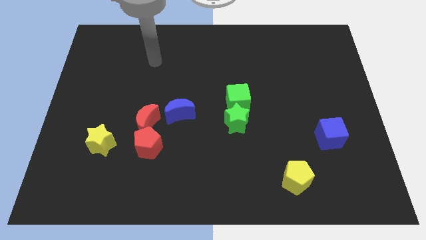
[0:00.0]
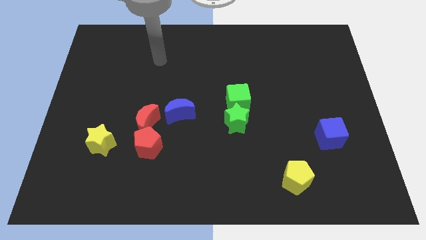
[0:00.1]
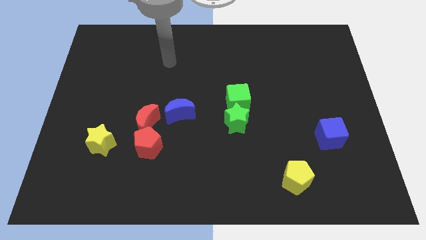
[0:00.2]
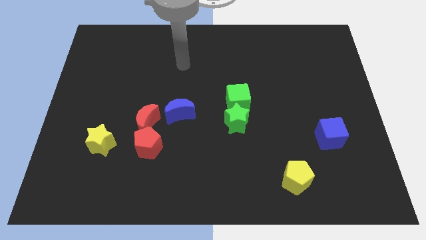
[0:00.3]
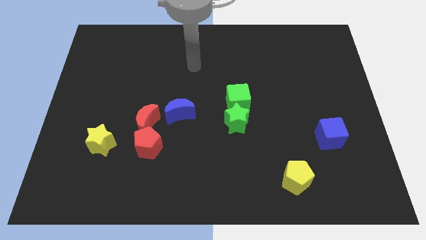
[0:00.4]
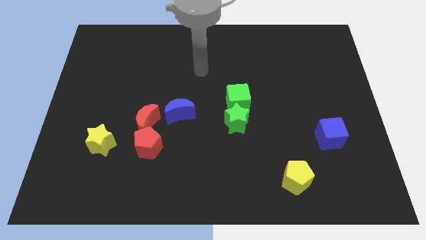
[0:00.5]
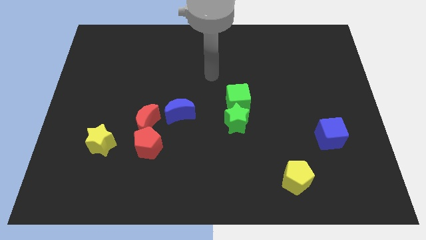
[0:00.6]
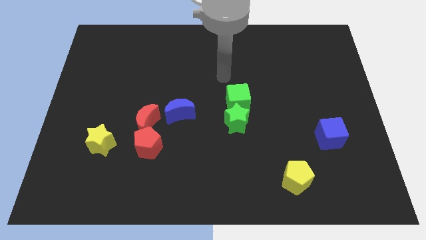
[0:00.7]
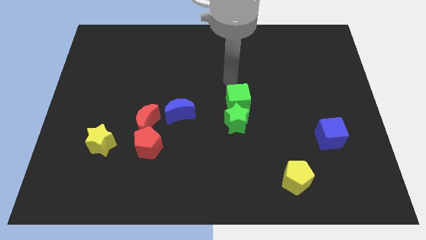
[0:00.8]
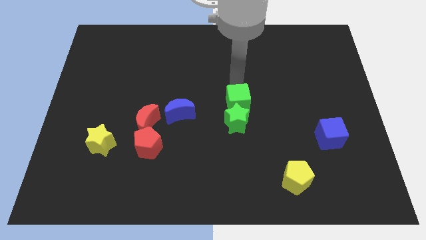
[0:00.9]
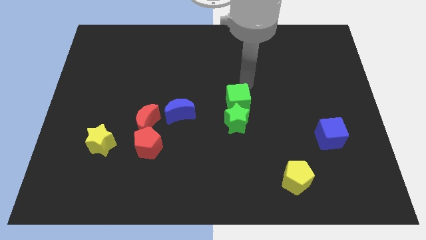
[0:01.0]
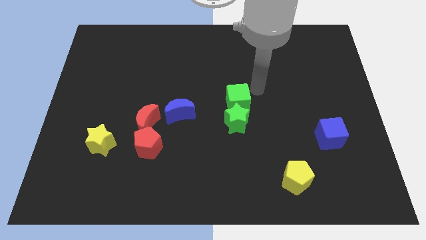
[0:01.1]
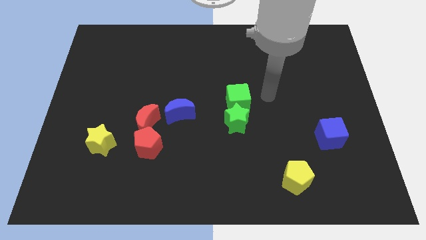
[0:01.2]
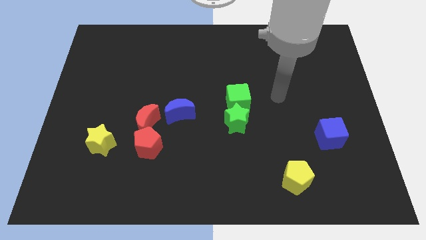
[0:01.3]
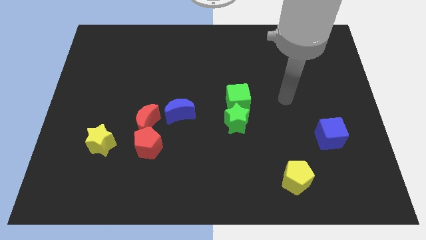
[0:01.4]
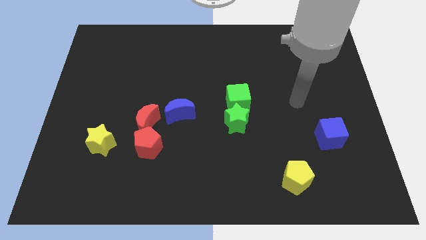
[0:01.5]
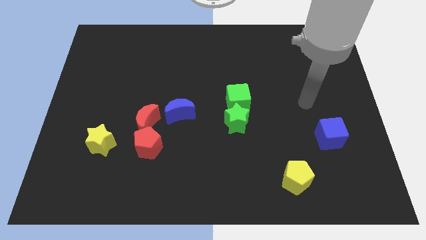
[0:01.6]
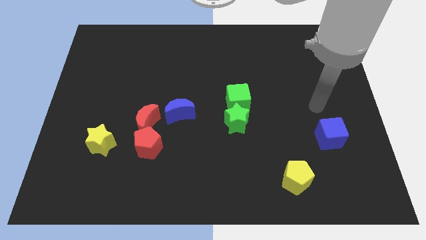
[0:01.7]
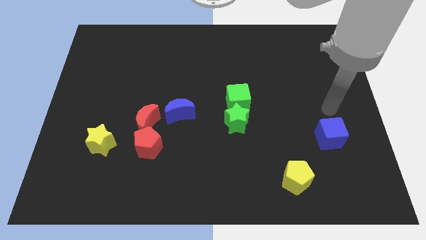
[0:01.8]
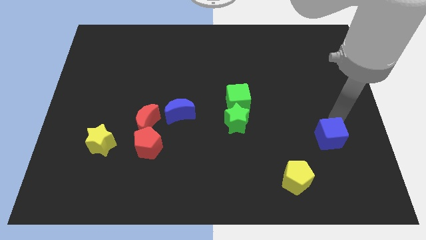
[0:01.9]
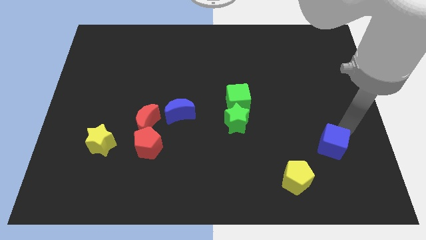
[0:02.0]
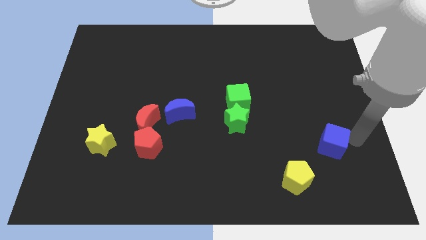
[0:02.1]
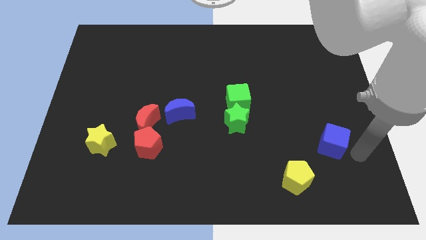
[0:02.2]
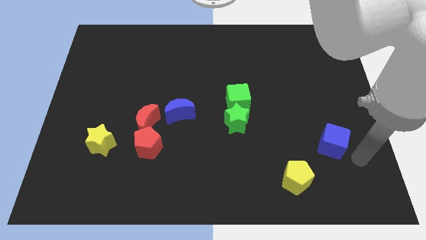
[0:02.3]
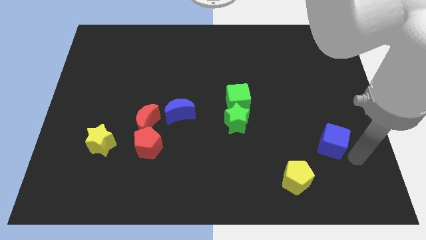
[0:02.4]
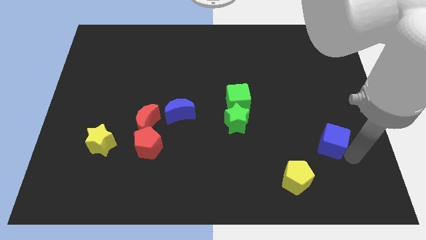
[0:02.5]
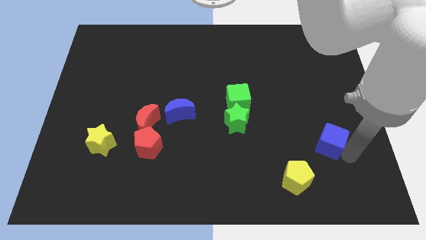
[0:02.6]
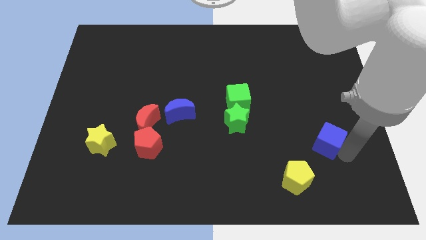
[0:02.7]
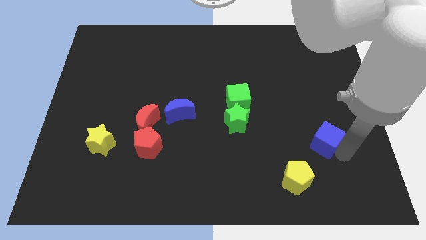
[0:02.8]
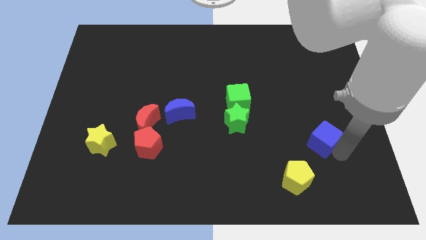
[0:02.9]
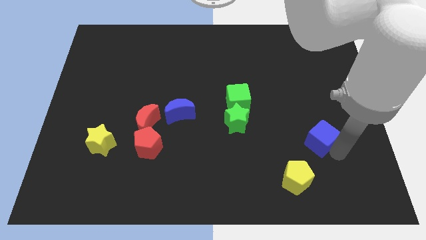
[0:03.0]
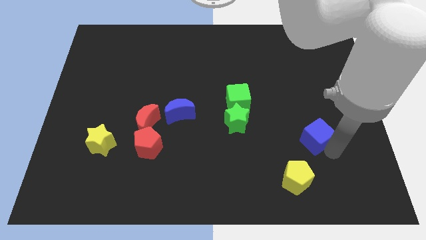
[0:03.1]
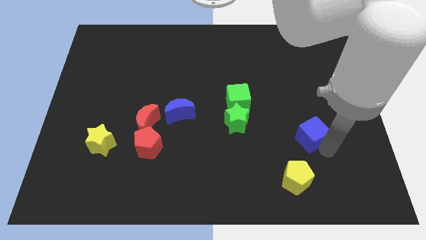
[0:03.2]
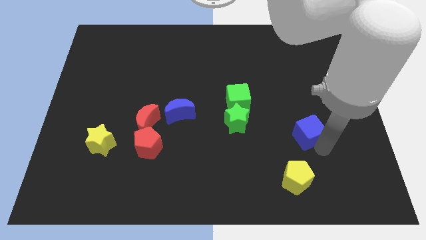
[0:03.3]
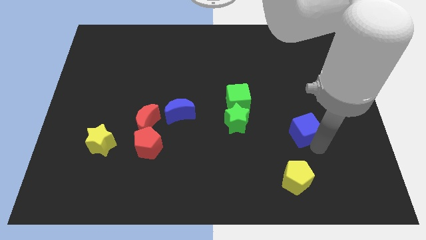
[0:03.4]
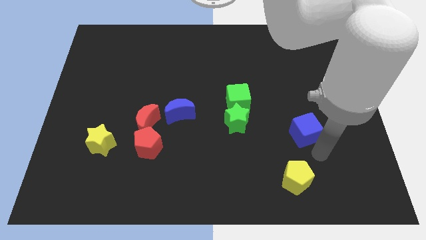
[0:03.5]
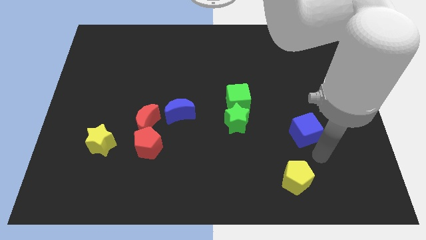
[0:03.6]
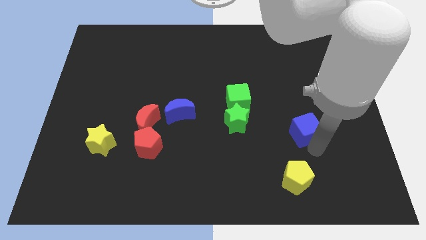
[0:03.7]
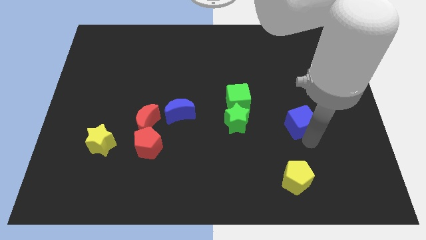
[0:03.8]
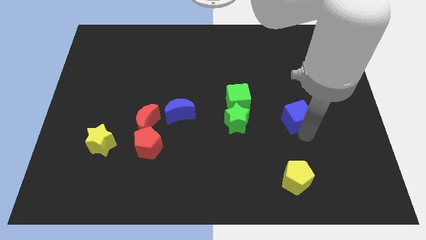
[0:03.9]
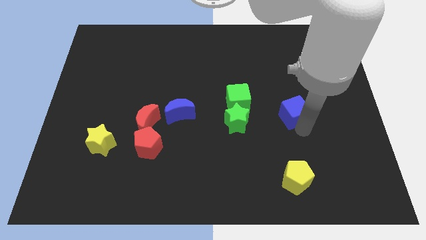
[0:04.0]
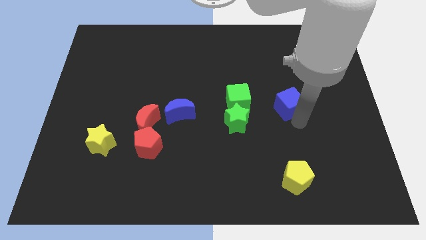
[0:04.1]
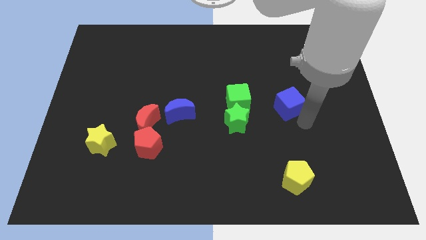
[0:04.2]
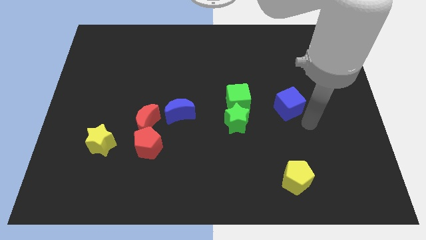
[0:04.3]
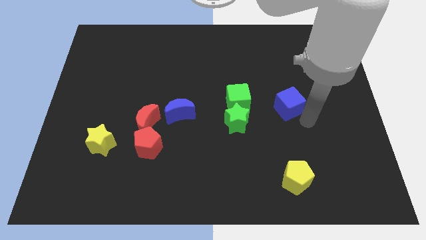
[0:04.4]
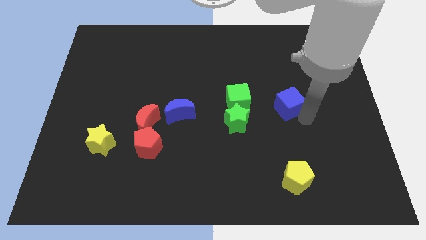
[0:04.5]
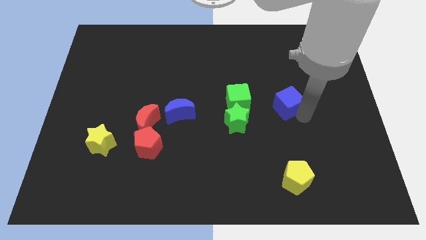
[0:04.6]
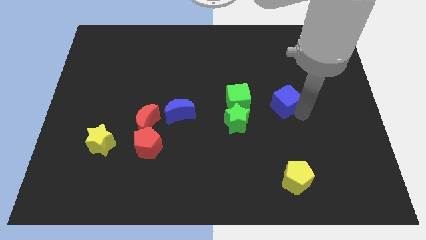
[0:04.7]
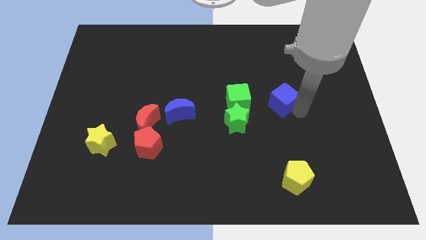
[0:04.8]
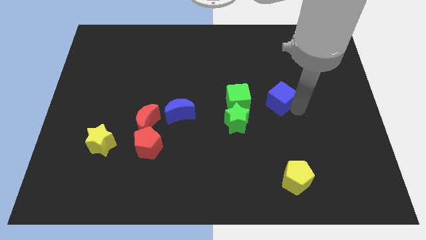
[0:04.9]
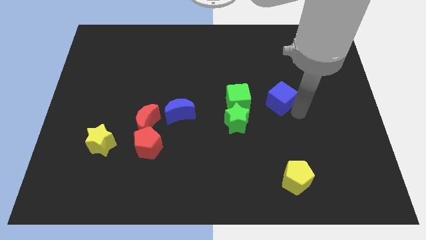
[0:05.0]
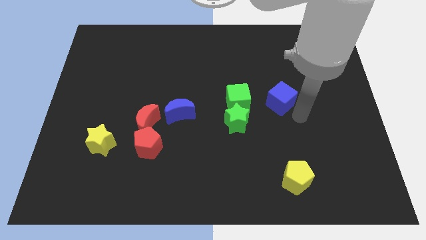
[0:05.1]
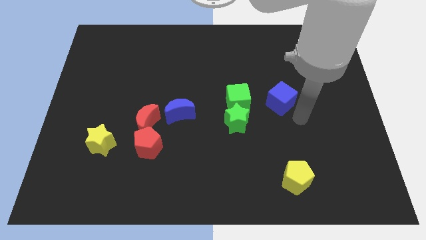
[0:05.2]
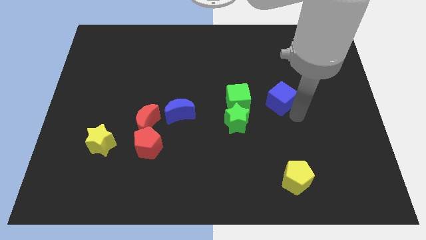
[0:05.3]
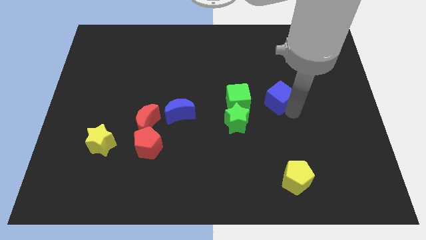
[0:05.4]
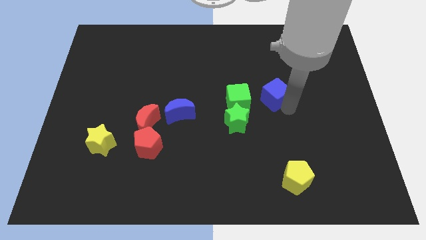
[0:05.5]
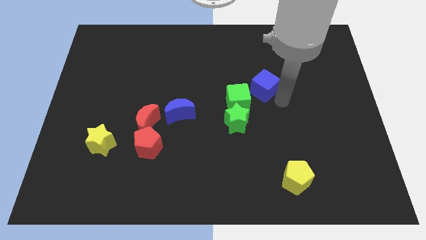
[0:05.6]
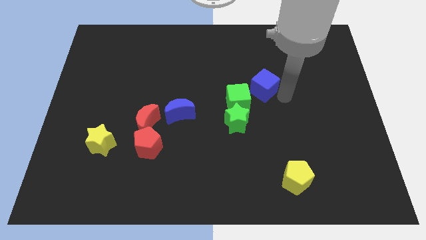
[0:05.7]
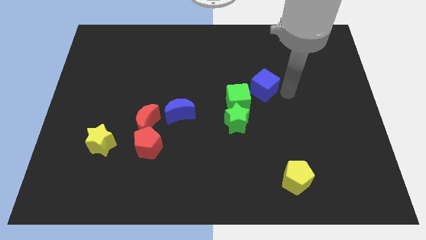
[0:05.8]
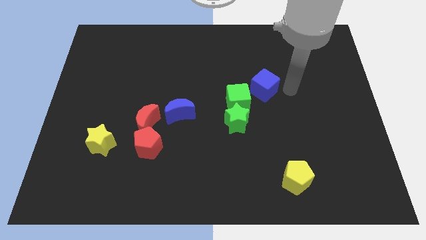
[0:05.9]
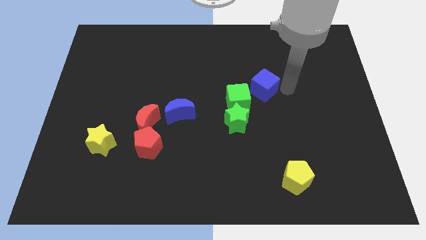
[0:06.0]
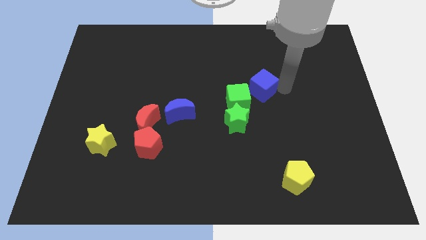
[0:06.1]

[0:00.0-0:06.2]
slide the blue cube to the middle
